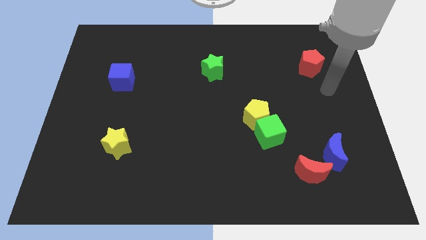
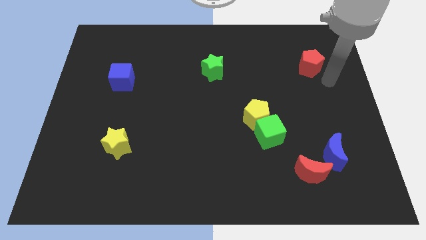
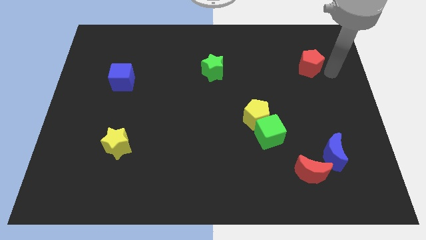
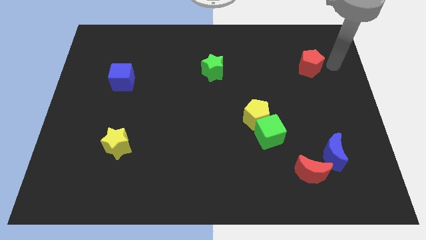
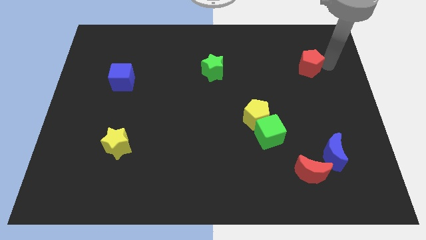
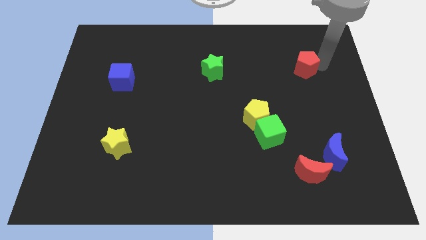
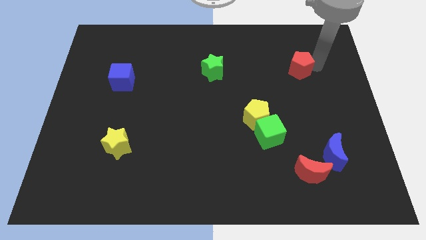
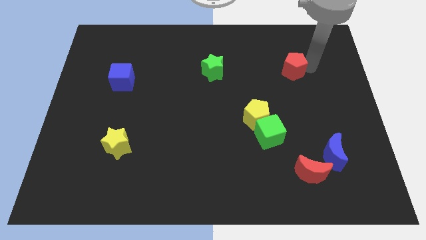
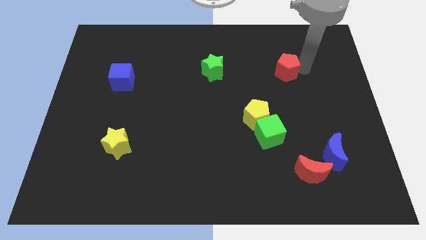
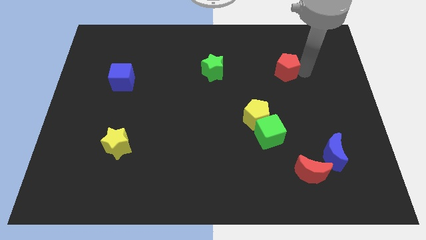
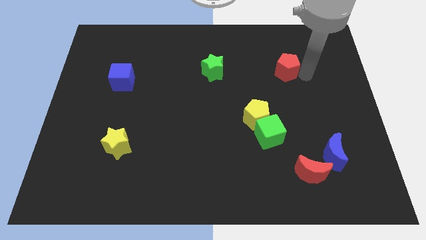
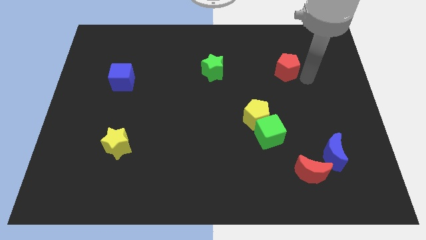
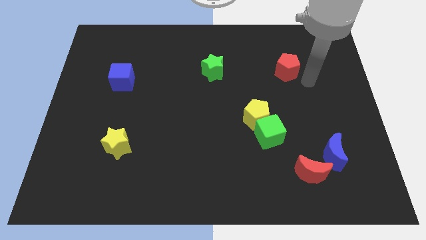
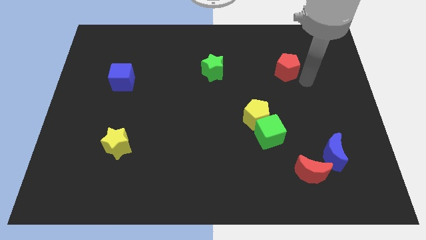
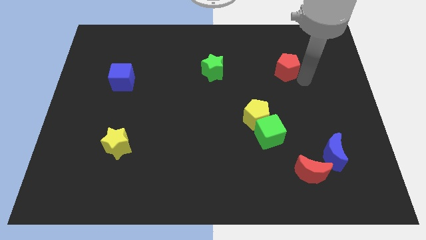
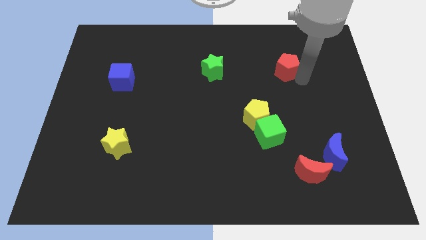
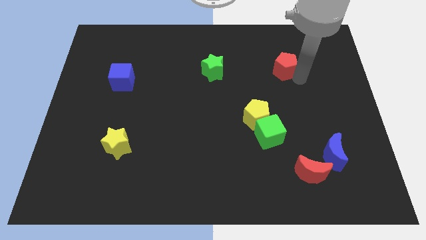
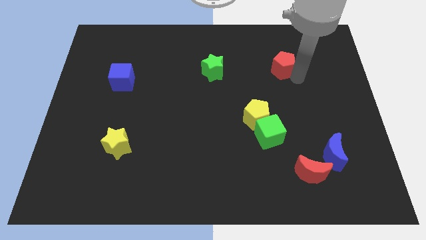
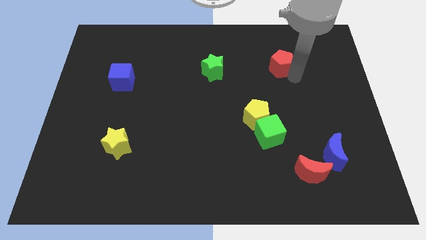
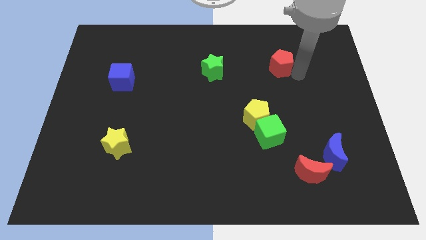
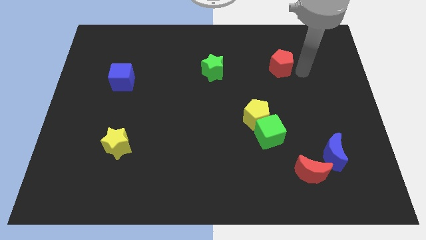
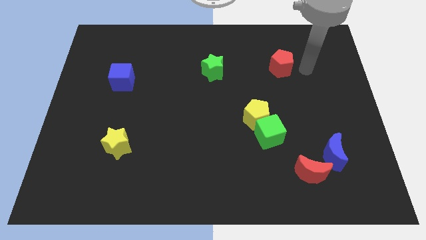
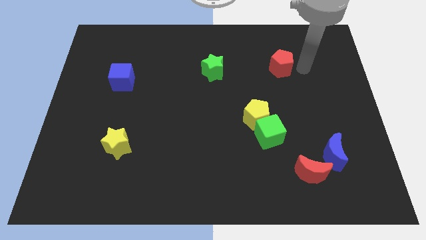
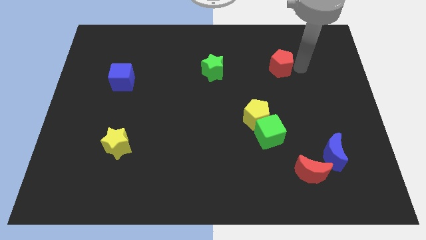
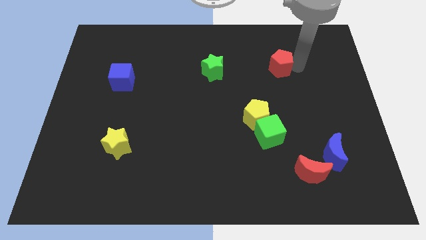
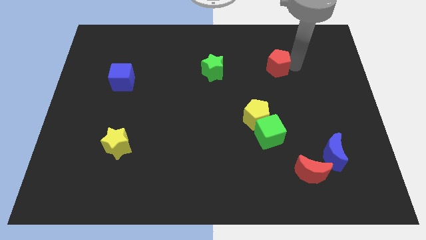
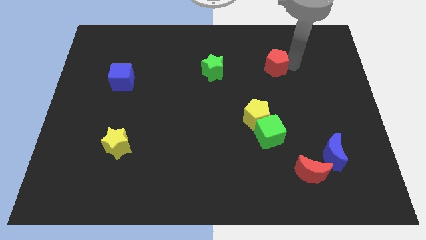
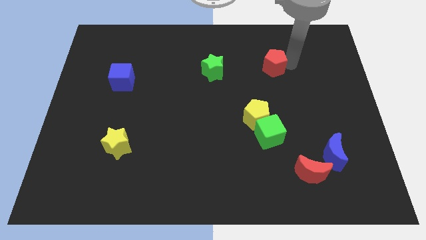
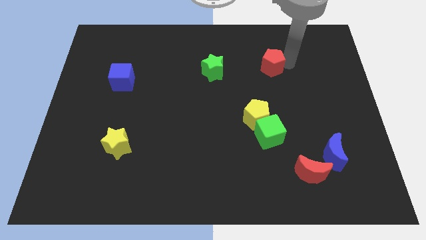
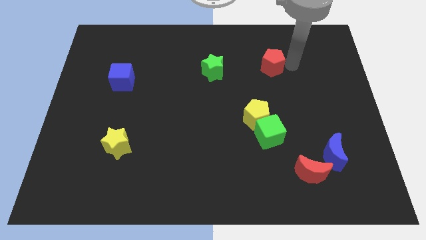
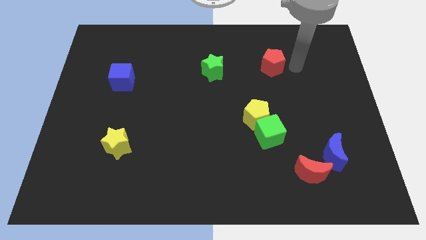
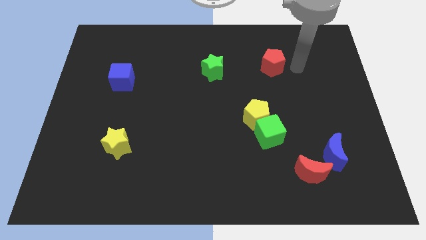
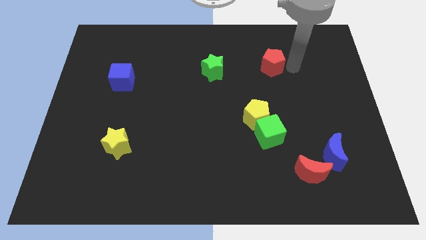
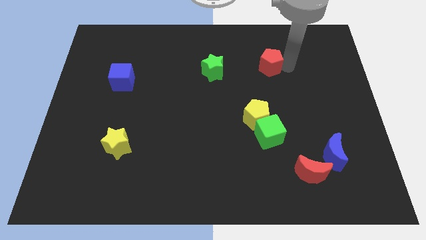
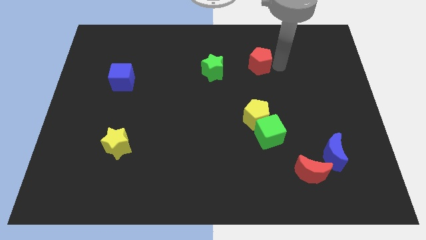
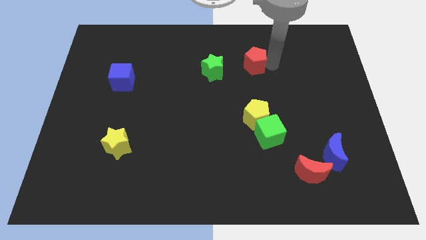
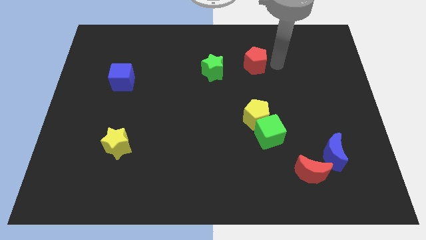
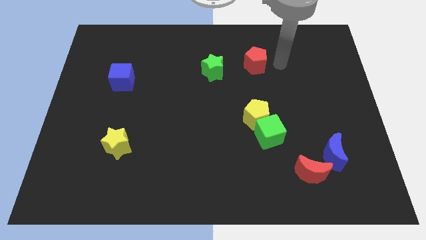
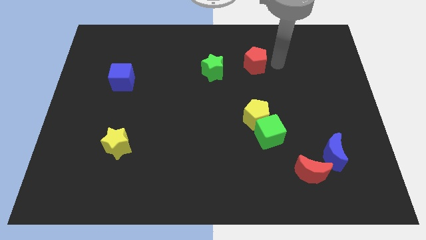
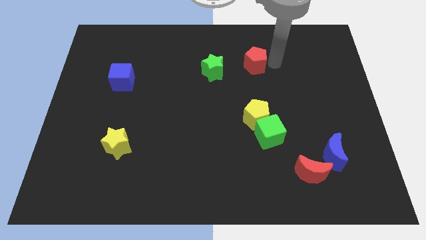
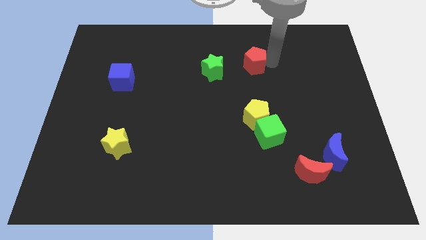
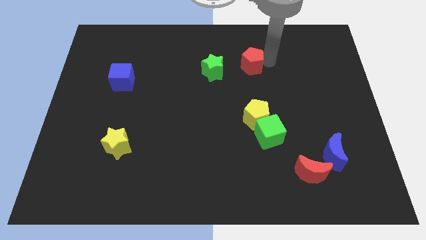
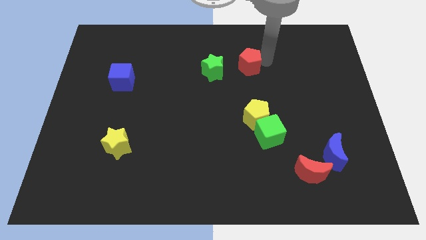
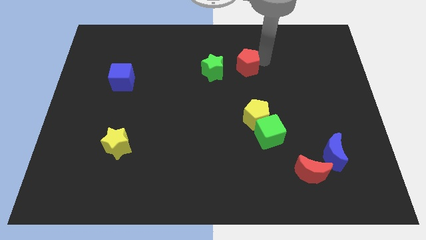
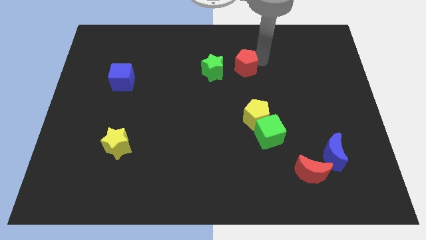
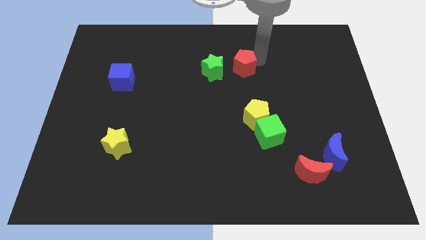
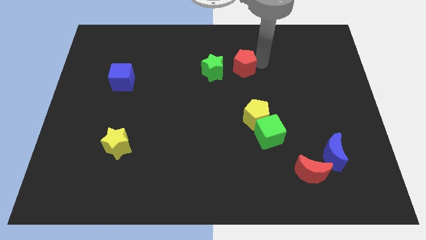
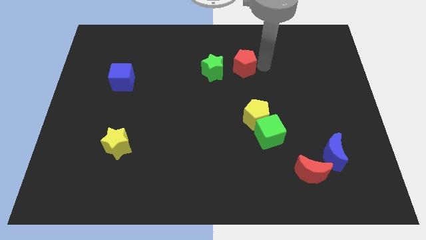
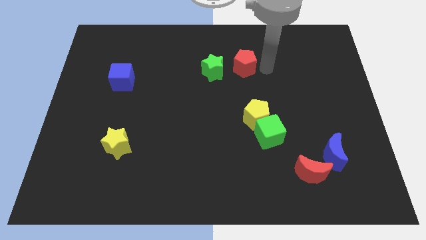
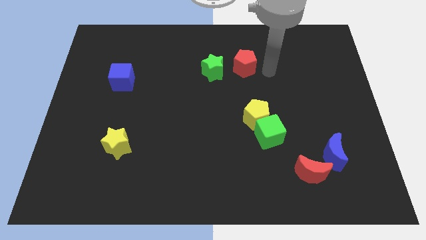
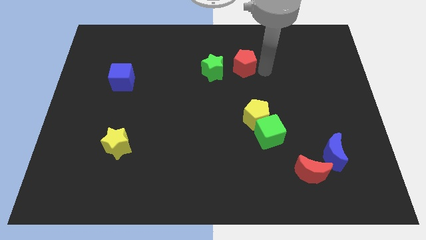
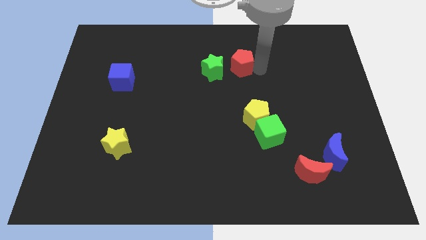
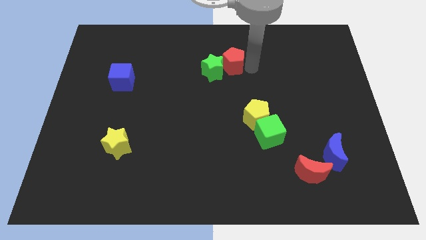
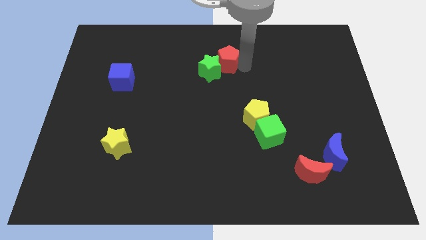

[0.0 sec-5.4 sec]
slide the red pentagon left

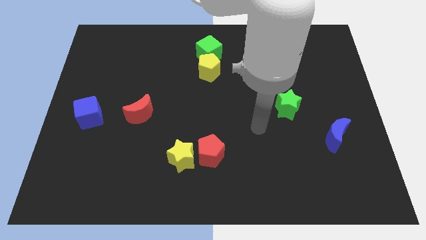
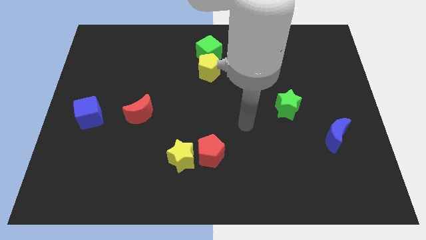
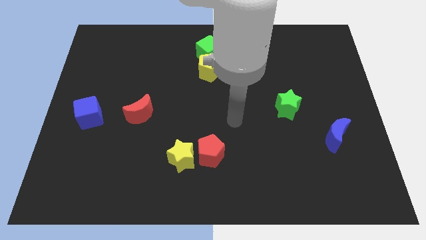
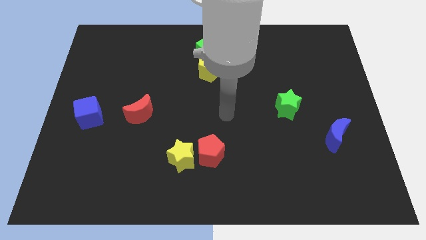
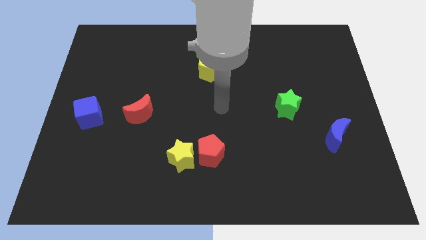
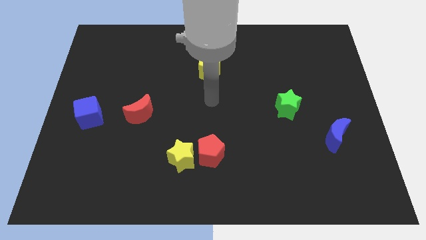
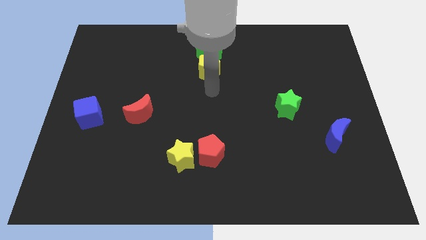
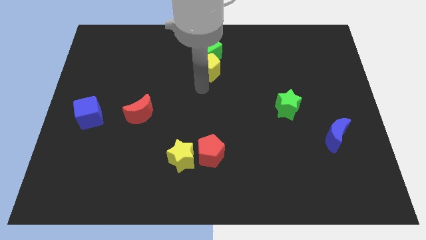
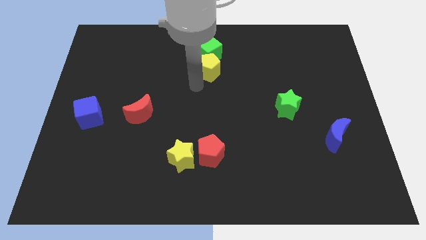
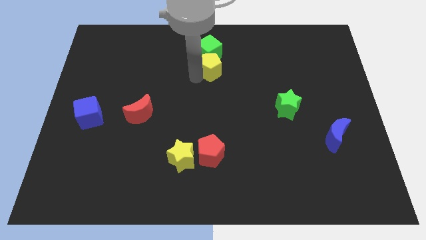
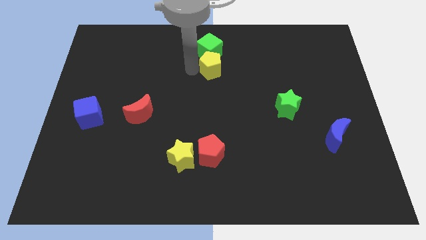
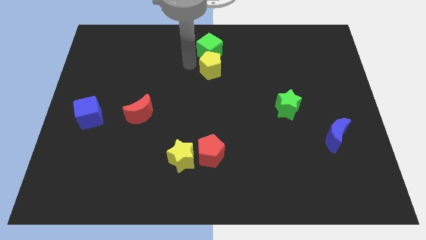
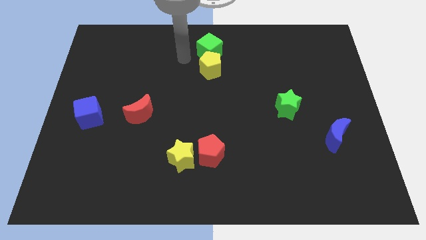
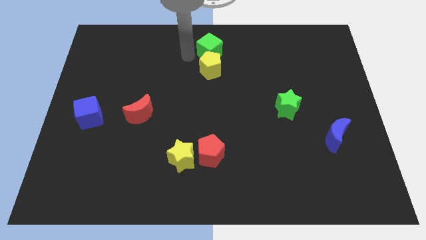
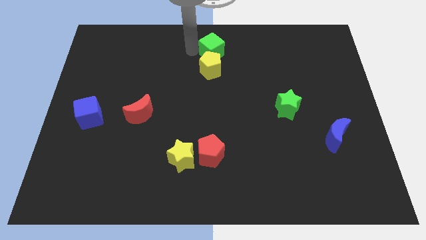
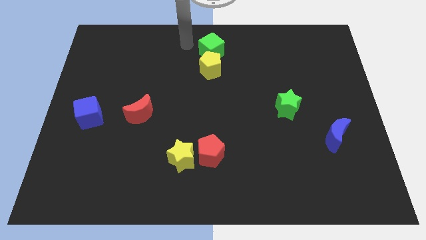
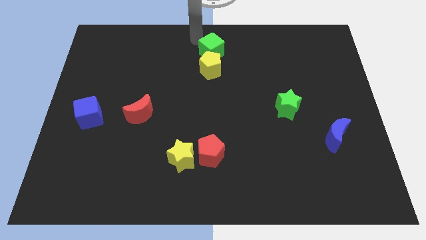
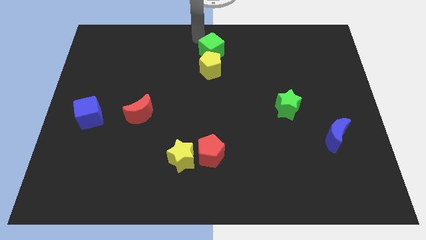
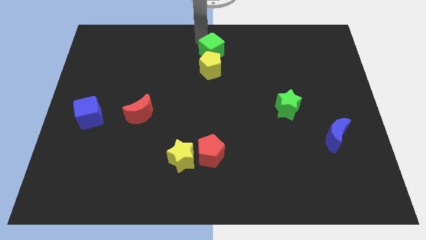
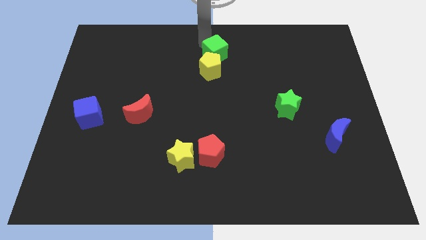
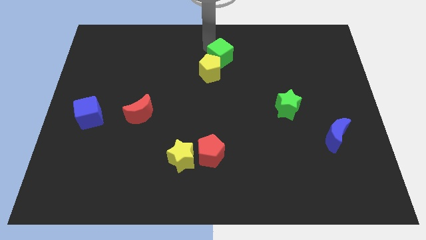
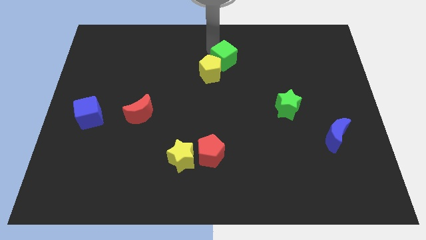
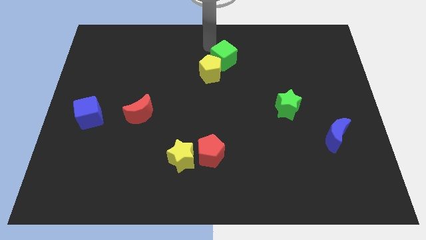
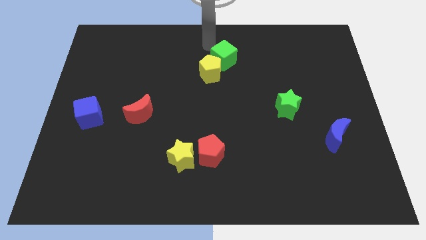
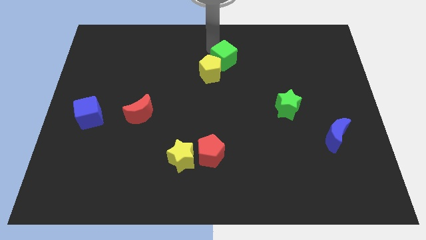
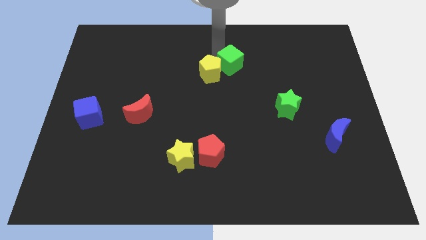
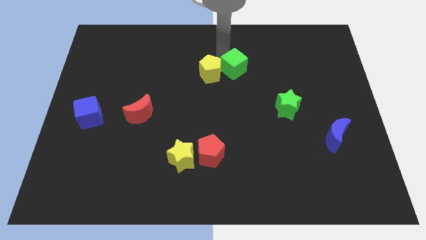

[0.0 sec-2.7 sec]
slightly push the green cube down and right

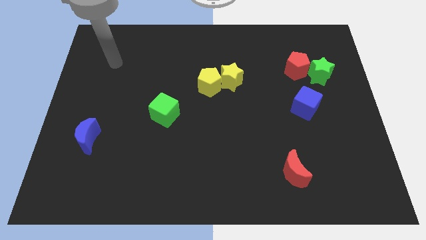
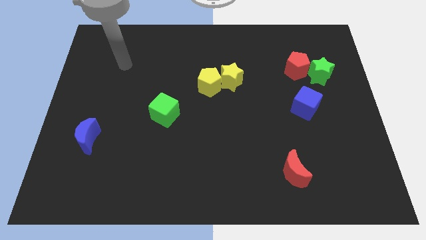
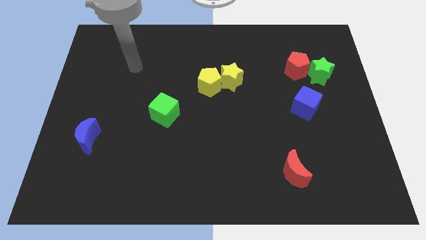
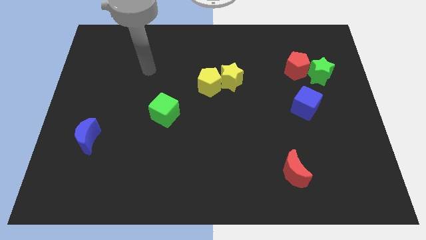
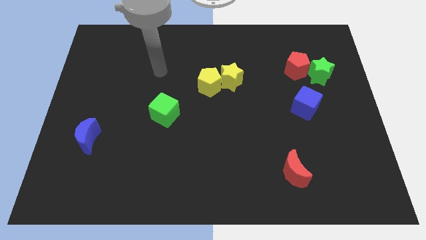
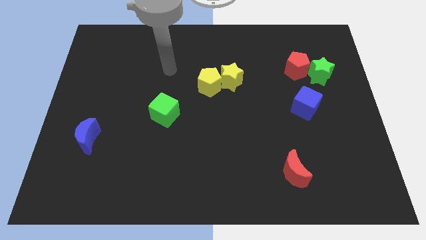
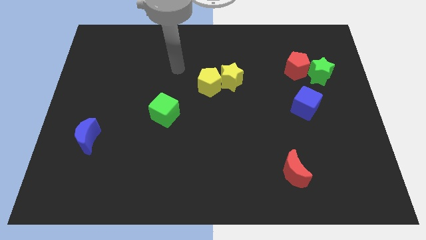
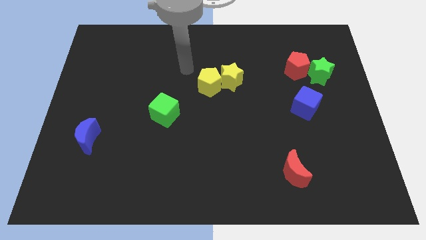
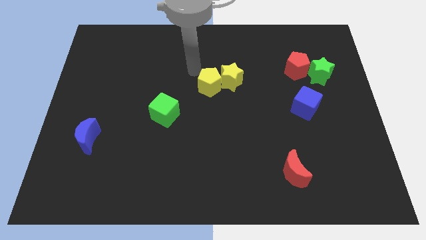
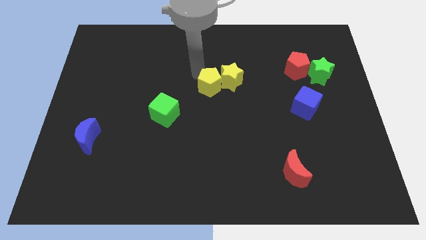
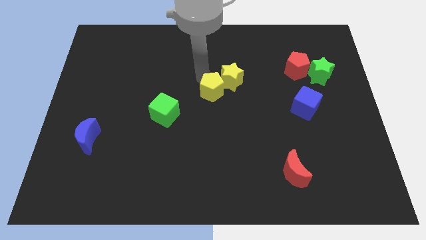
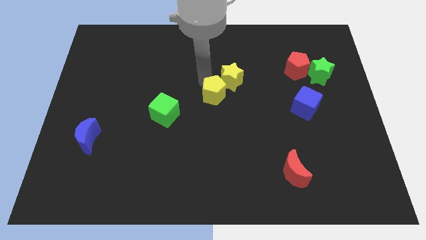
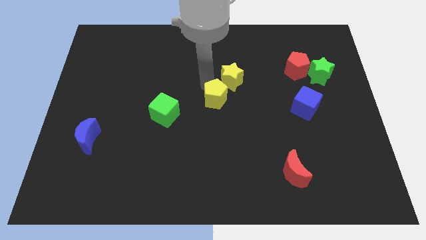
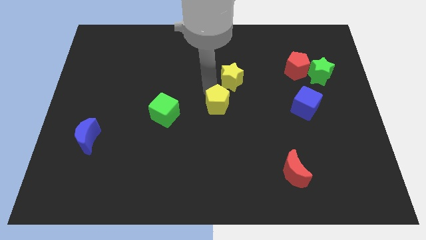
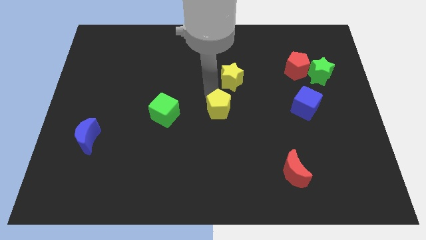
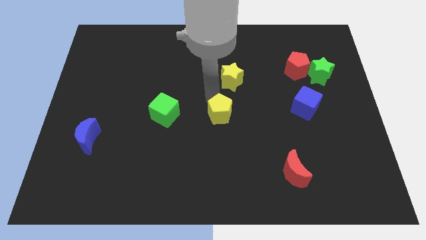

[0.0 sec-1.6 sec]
push the yellow pentagon diagonally downwards and right slightly
